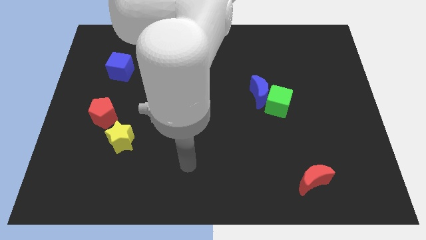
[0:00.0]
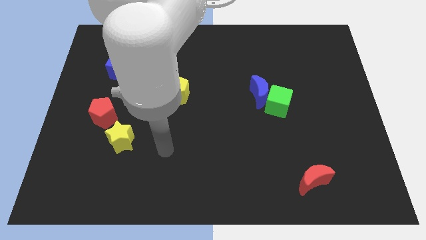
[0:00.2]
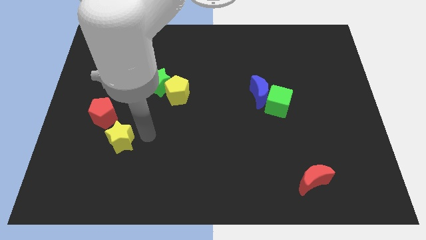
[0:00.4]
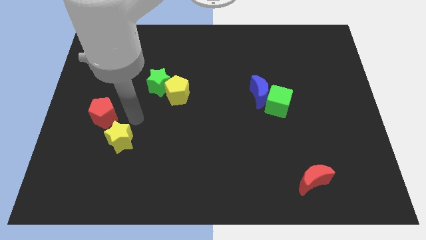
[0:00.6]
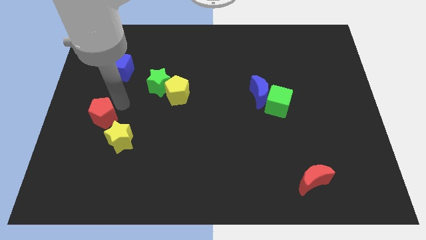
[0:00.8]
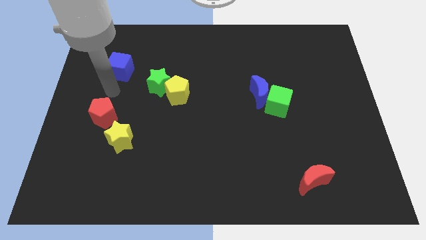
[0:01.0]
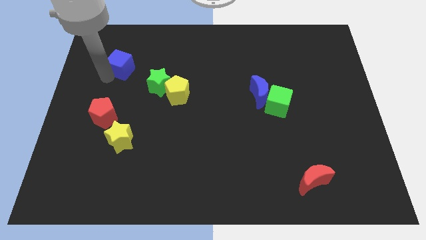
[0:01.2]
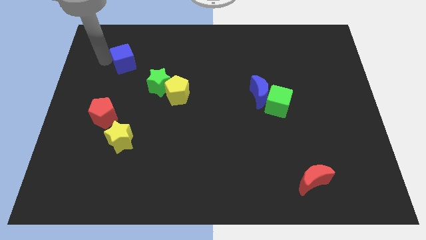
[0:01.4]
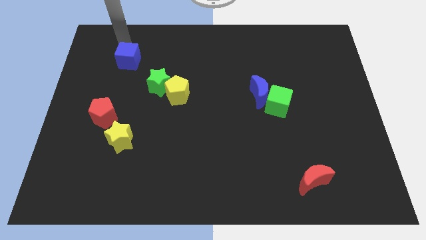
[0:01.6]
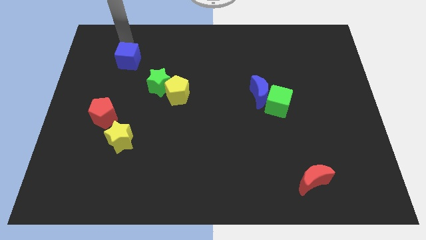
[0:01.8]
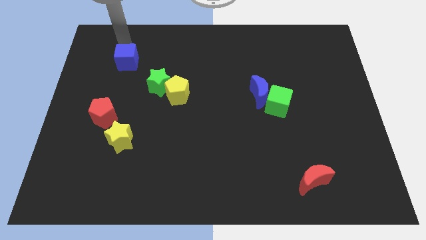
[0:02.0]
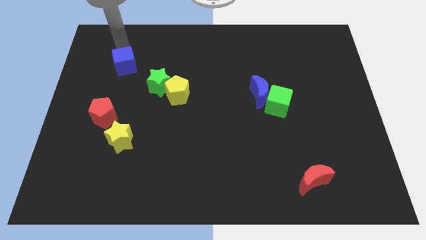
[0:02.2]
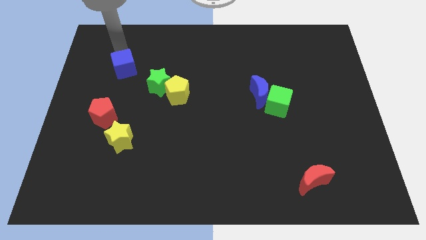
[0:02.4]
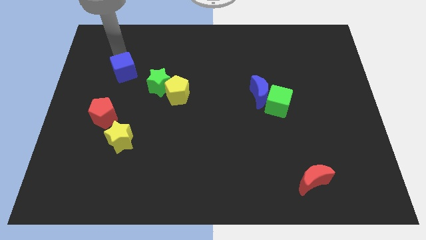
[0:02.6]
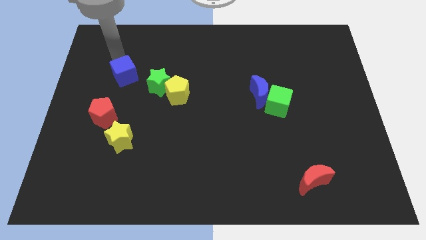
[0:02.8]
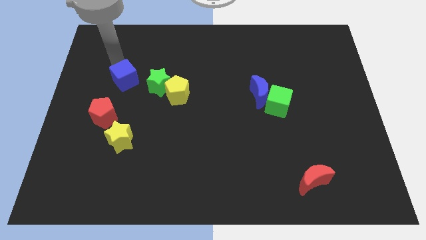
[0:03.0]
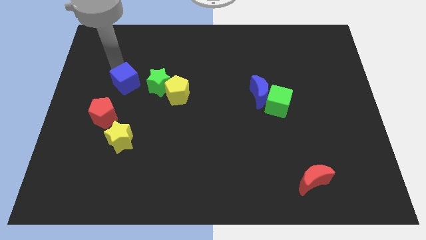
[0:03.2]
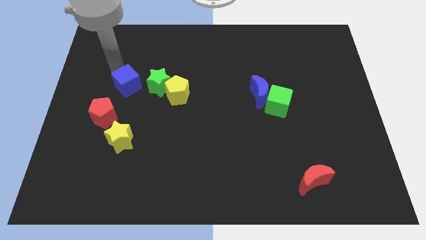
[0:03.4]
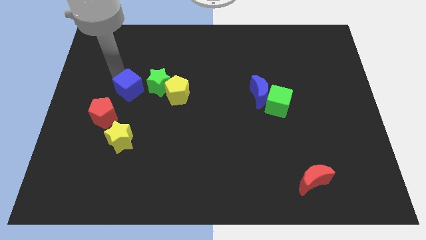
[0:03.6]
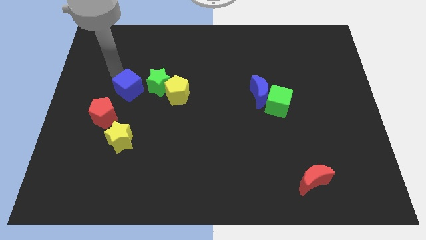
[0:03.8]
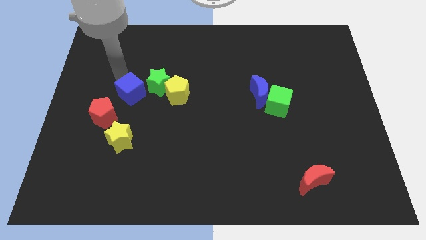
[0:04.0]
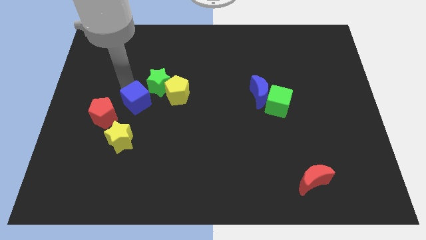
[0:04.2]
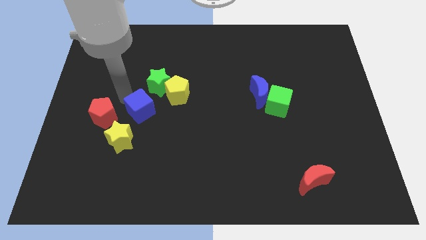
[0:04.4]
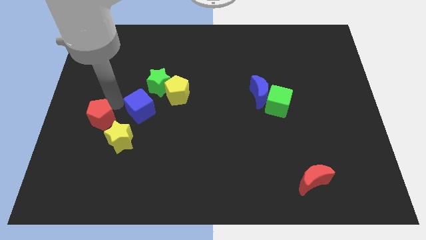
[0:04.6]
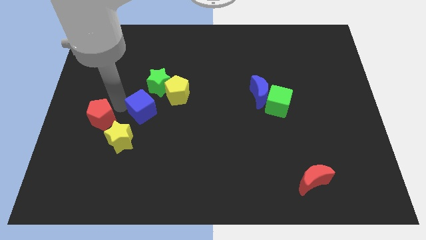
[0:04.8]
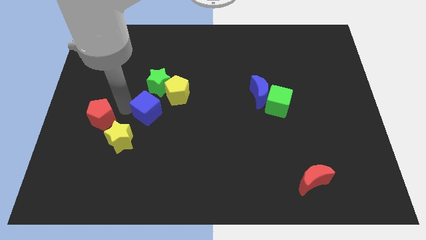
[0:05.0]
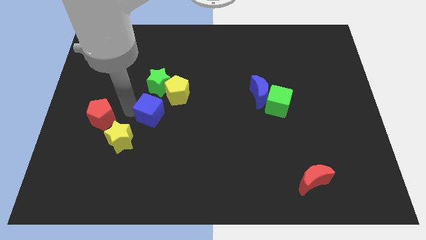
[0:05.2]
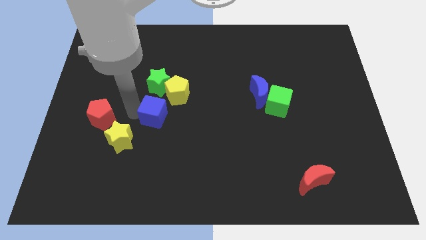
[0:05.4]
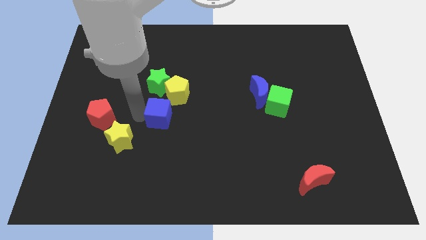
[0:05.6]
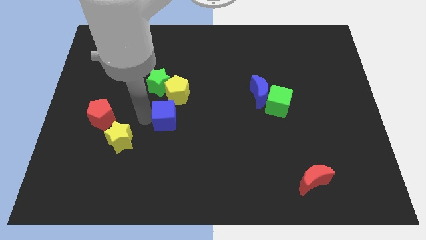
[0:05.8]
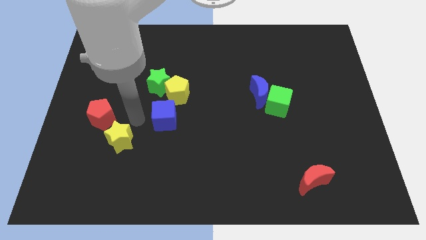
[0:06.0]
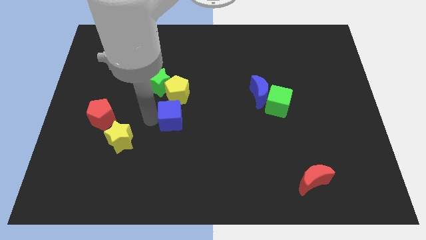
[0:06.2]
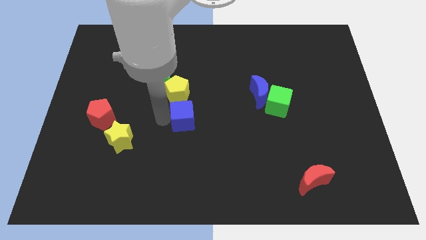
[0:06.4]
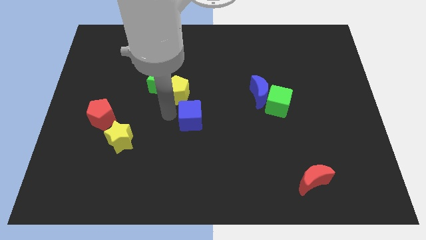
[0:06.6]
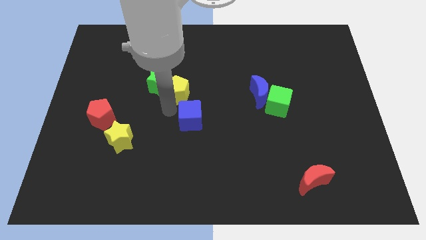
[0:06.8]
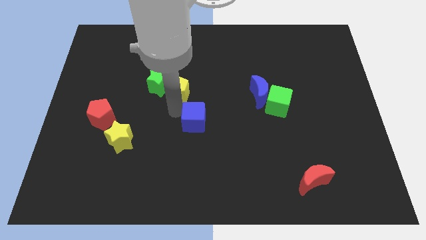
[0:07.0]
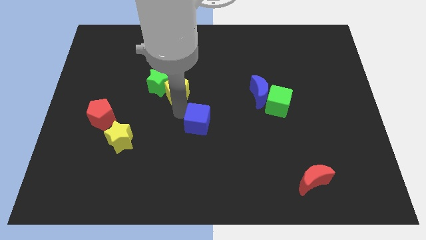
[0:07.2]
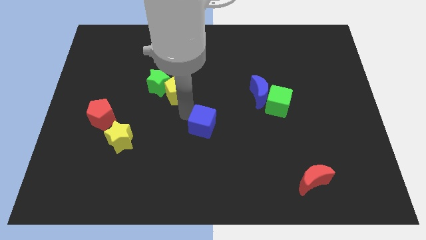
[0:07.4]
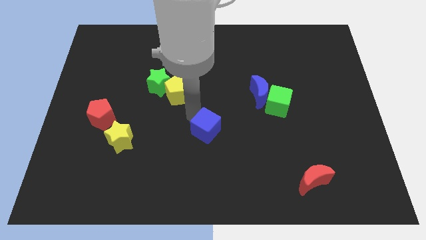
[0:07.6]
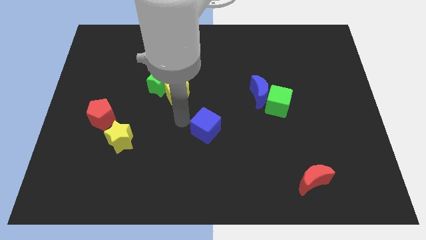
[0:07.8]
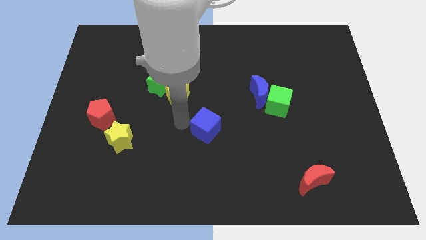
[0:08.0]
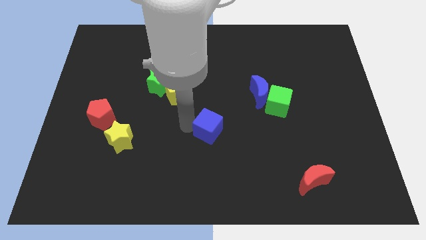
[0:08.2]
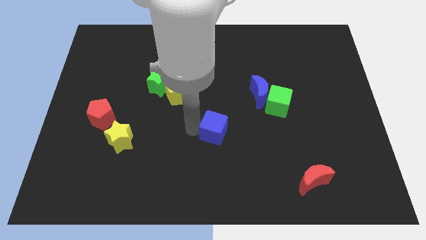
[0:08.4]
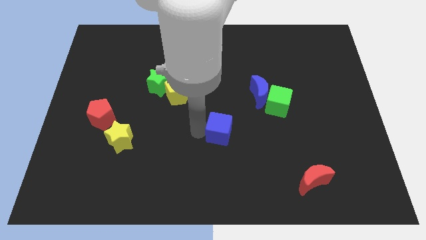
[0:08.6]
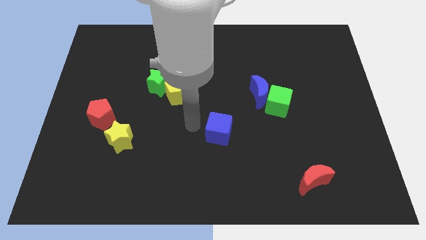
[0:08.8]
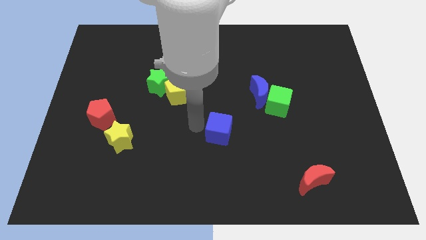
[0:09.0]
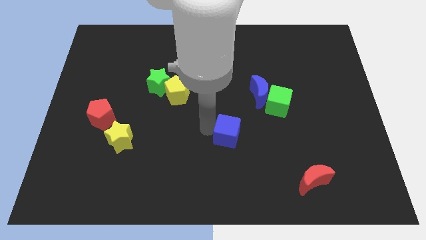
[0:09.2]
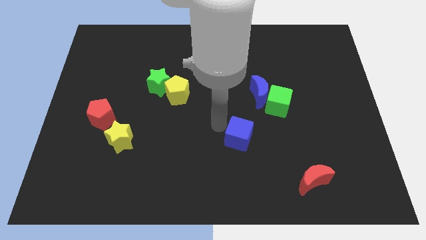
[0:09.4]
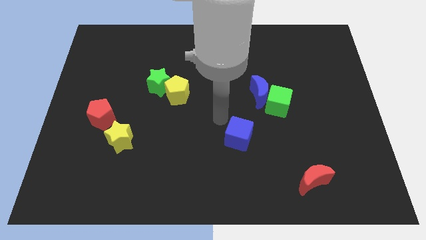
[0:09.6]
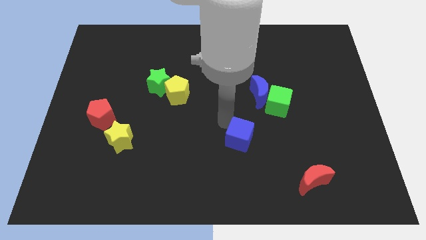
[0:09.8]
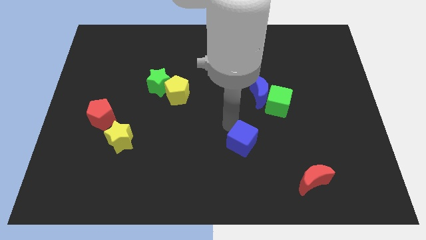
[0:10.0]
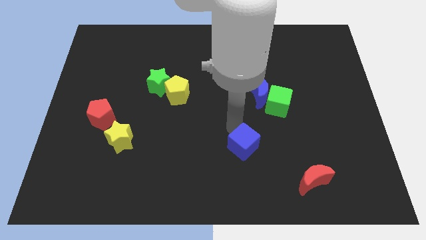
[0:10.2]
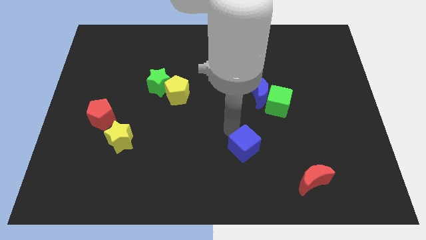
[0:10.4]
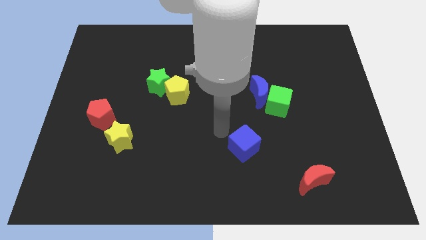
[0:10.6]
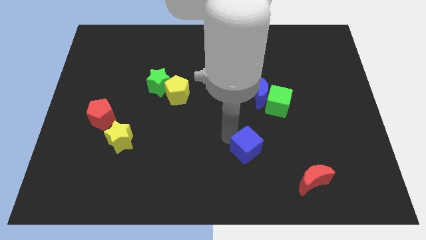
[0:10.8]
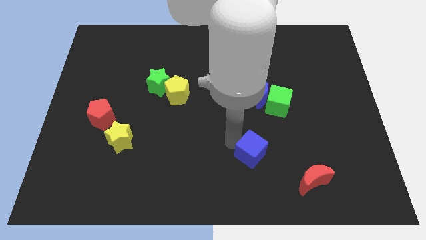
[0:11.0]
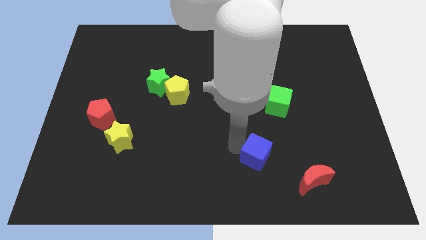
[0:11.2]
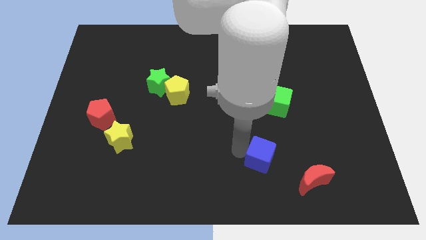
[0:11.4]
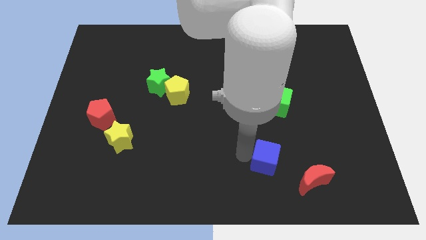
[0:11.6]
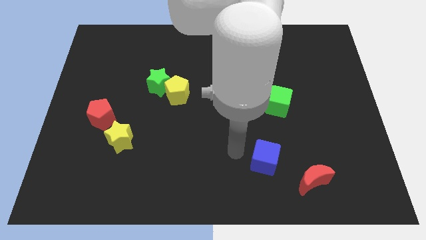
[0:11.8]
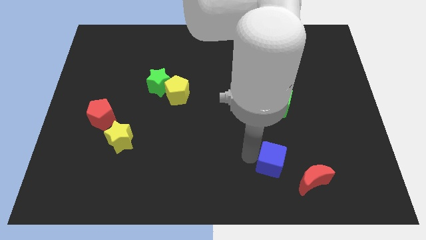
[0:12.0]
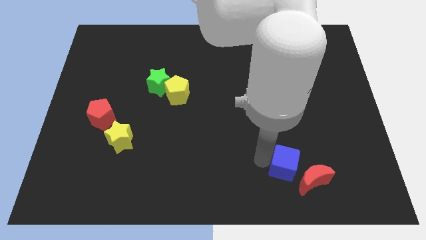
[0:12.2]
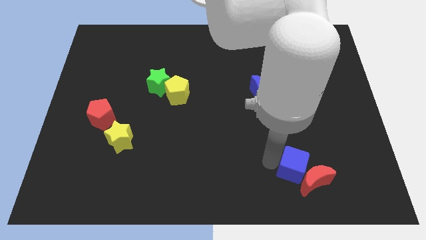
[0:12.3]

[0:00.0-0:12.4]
move the blue cube close to the red moon
